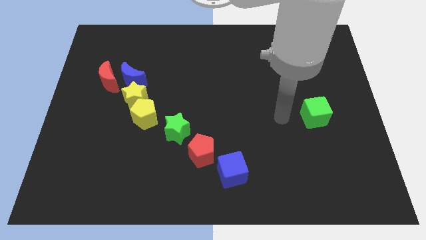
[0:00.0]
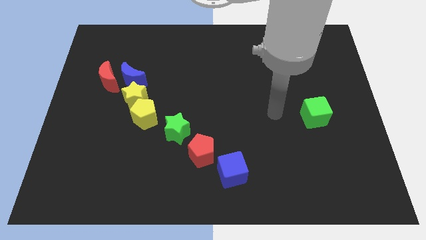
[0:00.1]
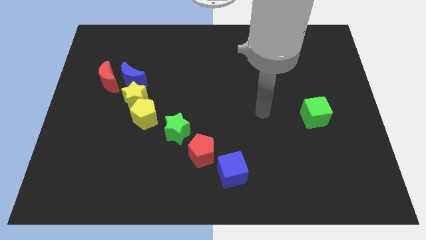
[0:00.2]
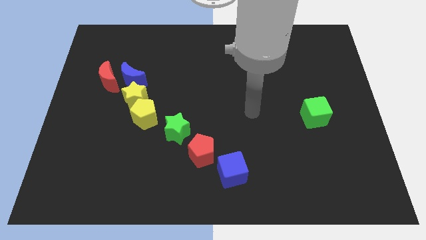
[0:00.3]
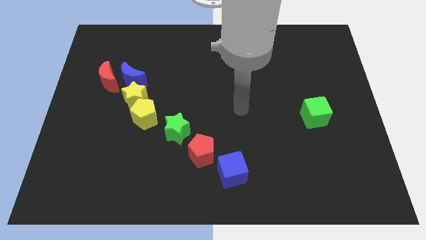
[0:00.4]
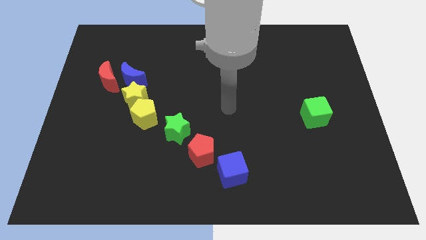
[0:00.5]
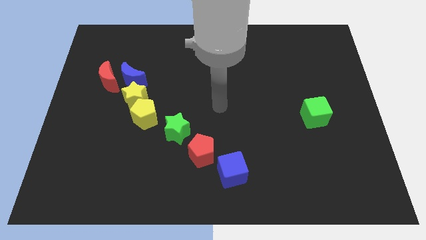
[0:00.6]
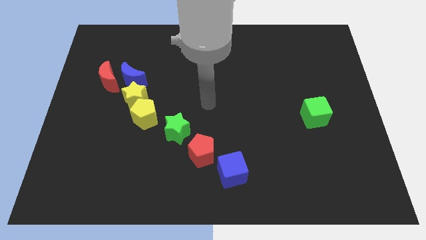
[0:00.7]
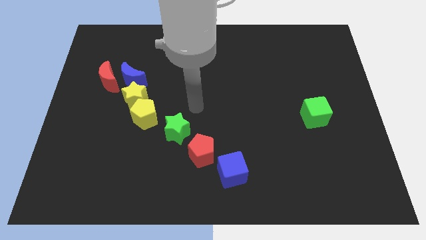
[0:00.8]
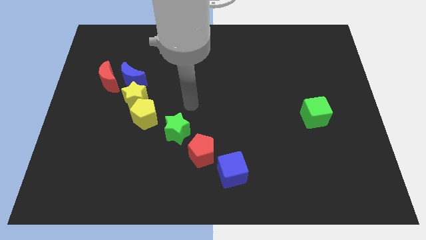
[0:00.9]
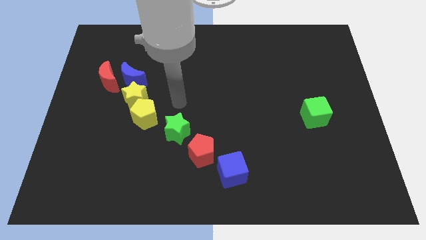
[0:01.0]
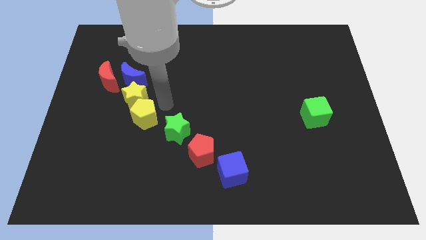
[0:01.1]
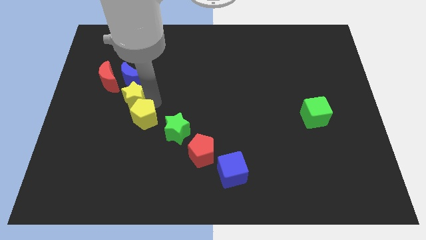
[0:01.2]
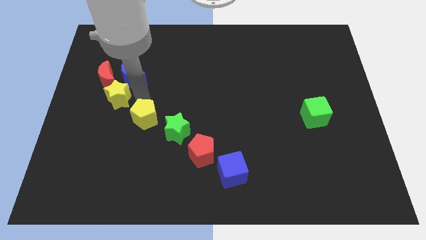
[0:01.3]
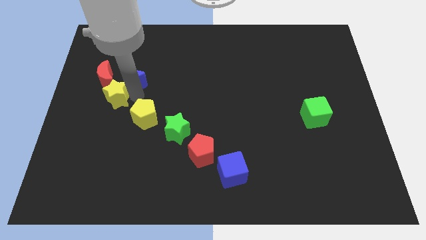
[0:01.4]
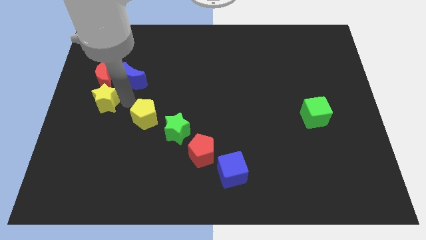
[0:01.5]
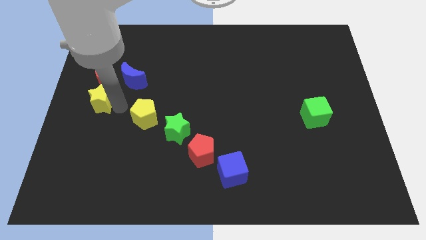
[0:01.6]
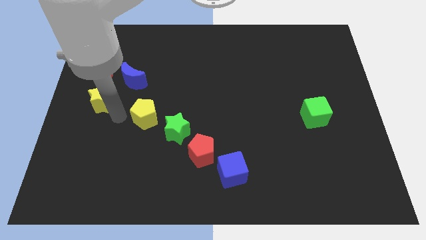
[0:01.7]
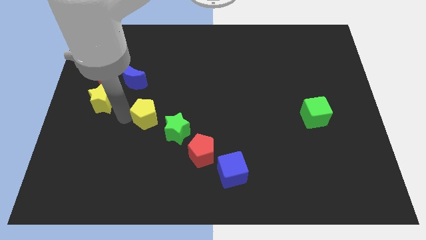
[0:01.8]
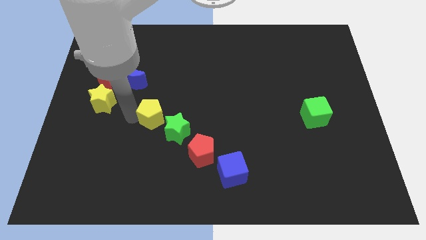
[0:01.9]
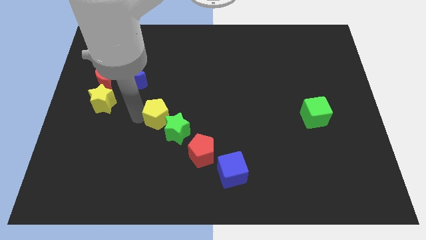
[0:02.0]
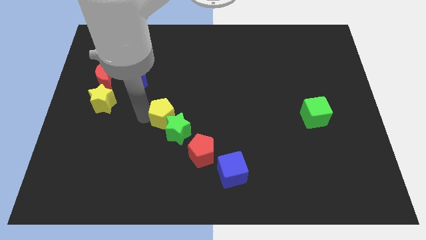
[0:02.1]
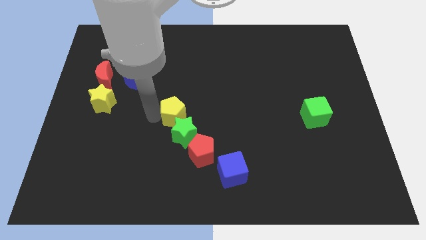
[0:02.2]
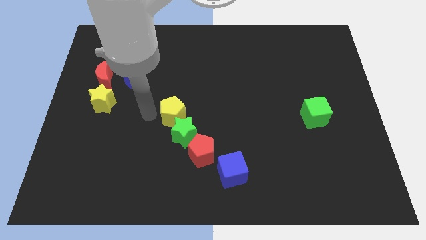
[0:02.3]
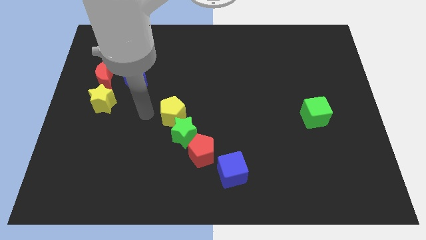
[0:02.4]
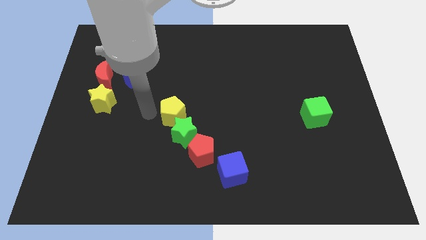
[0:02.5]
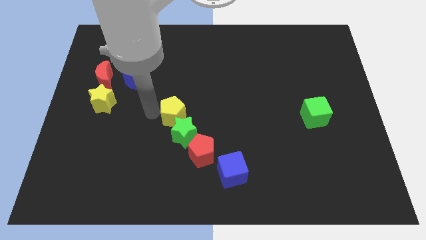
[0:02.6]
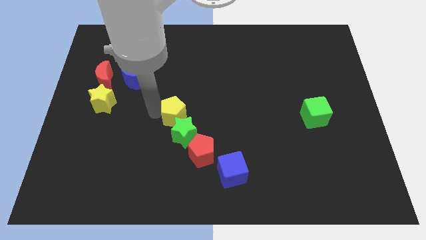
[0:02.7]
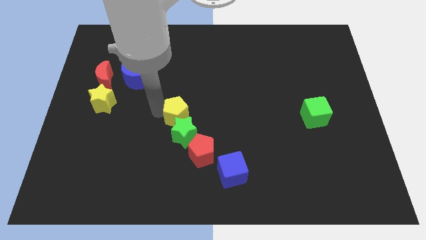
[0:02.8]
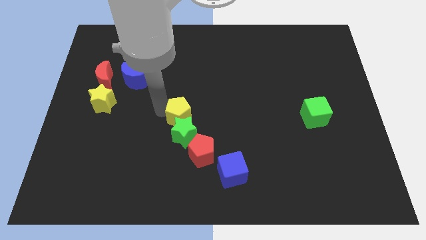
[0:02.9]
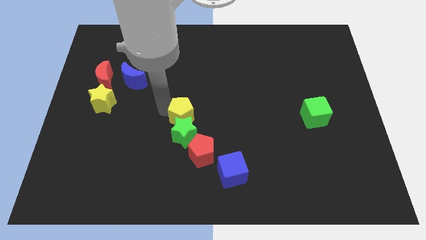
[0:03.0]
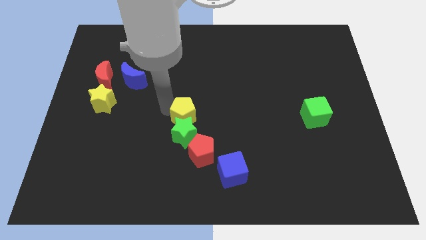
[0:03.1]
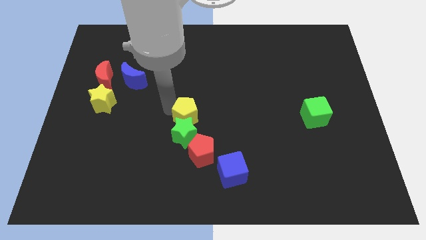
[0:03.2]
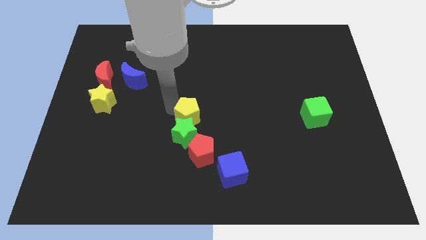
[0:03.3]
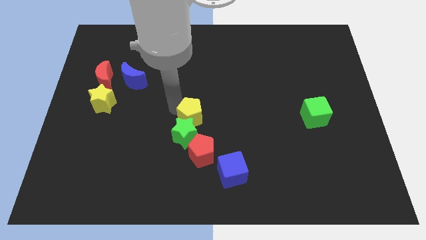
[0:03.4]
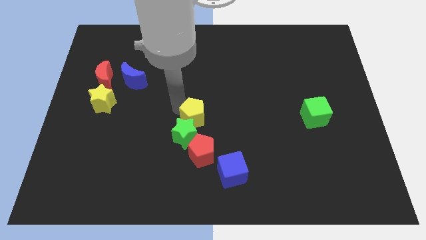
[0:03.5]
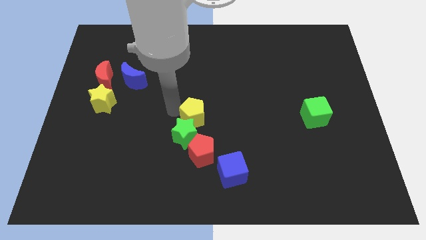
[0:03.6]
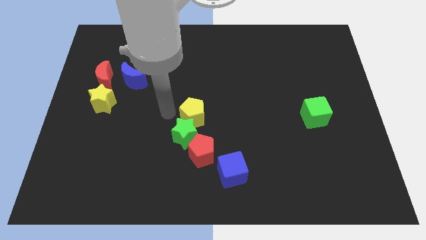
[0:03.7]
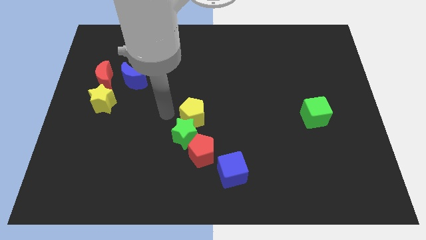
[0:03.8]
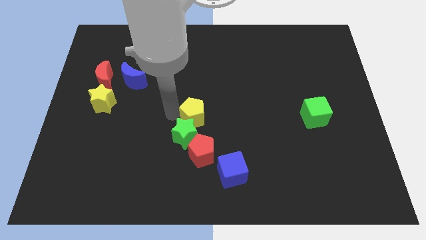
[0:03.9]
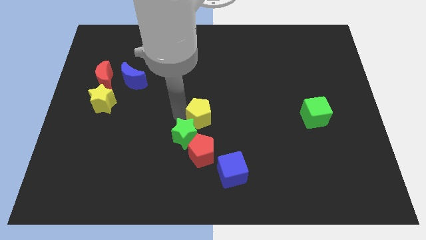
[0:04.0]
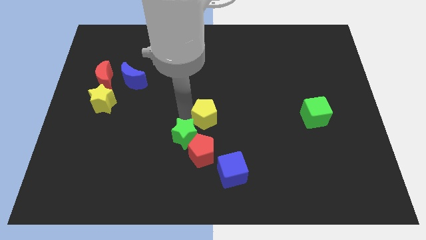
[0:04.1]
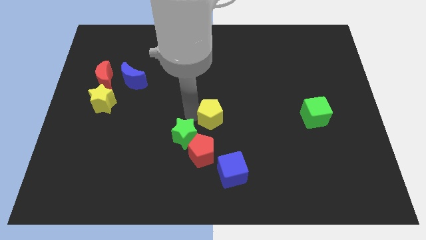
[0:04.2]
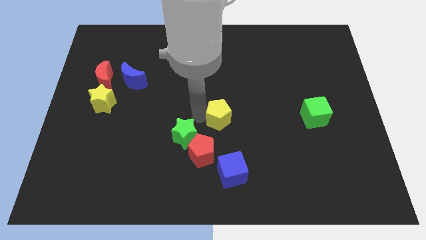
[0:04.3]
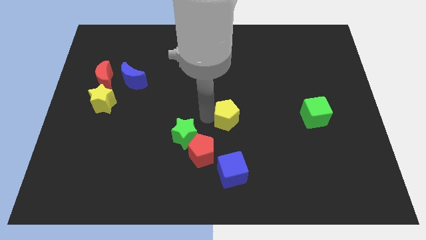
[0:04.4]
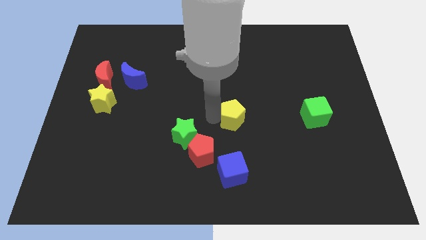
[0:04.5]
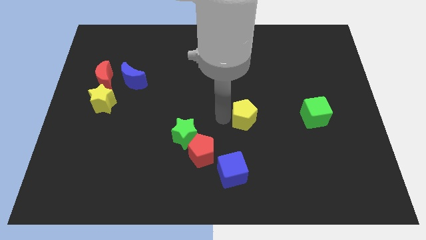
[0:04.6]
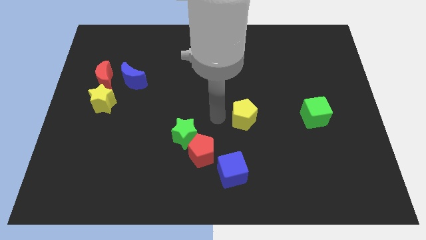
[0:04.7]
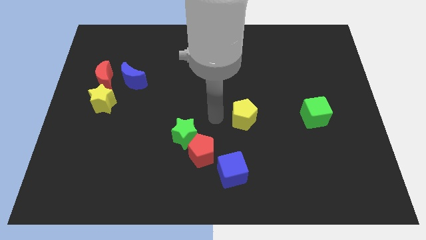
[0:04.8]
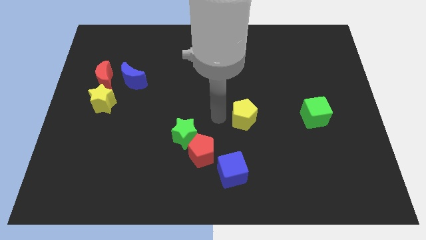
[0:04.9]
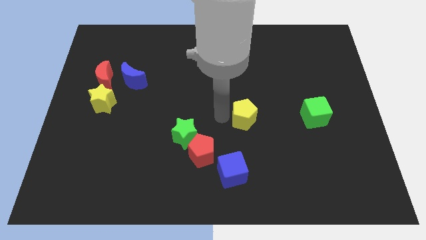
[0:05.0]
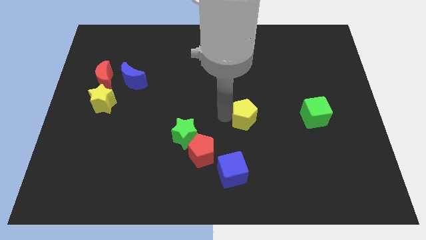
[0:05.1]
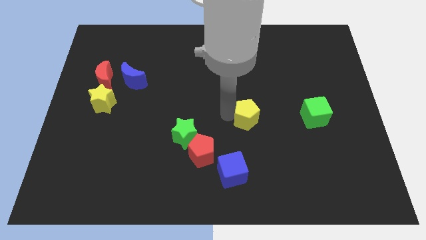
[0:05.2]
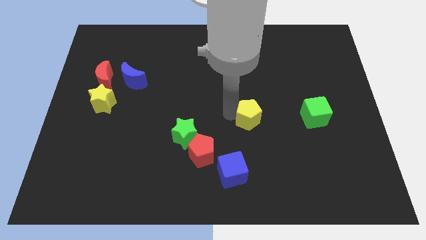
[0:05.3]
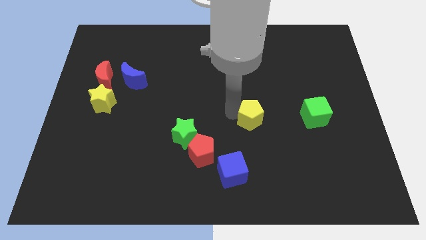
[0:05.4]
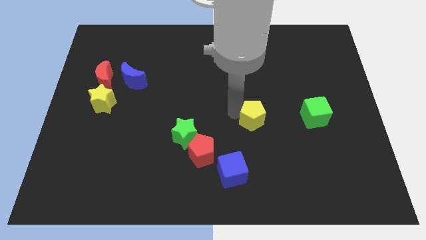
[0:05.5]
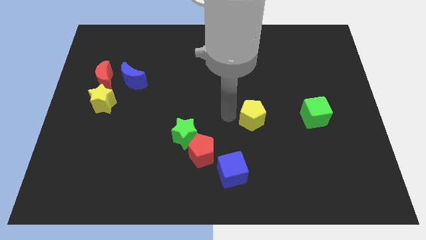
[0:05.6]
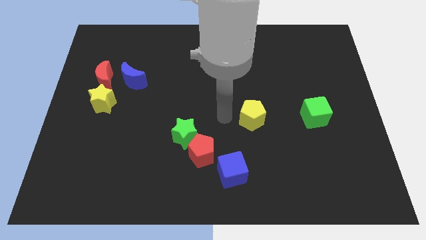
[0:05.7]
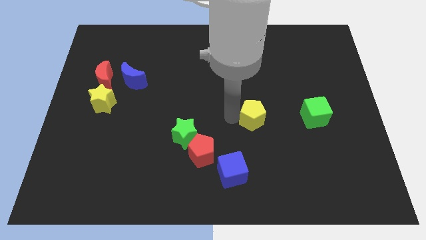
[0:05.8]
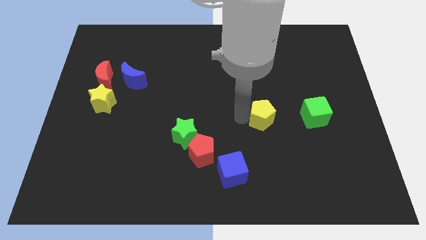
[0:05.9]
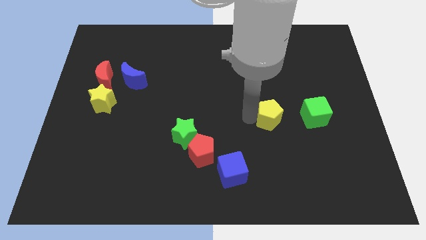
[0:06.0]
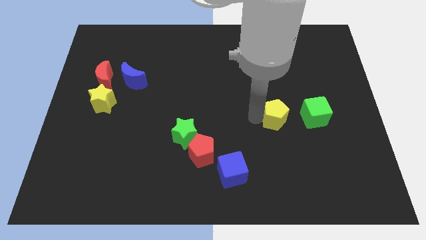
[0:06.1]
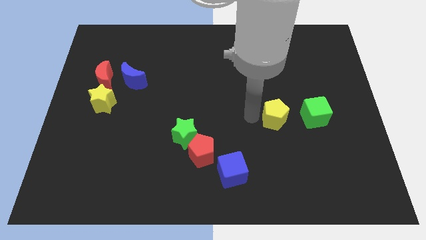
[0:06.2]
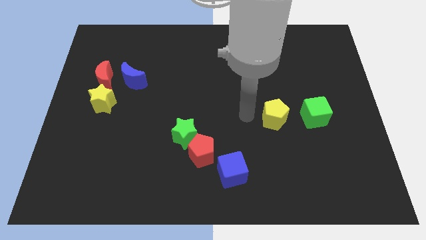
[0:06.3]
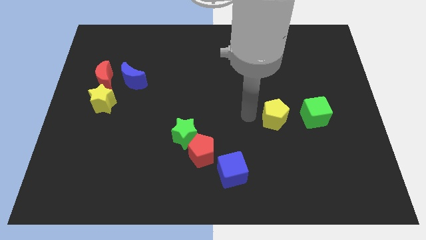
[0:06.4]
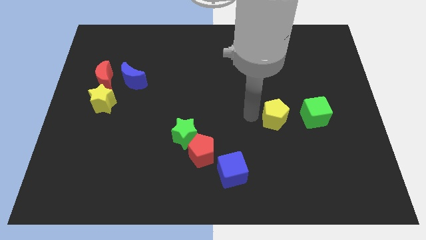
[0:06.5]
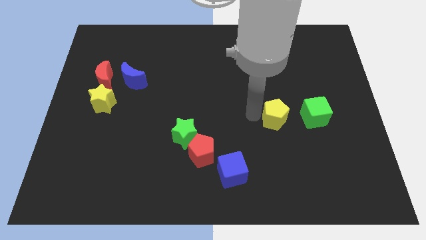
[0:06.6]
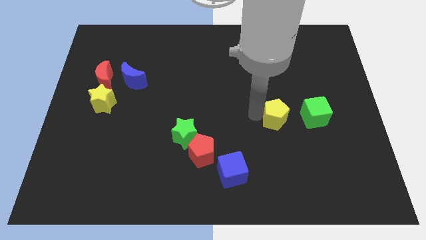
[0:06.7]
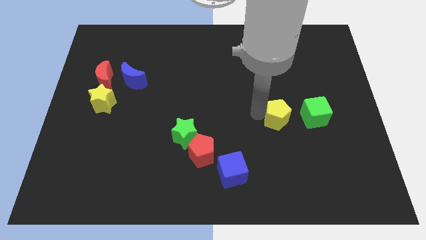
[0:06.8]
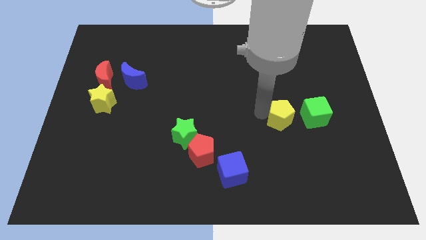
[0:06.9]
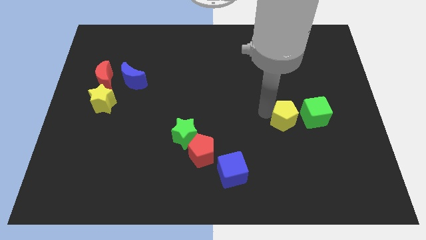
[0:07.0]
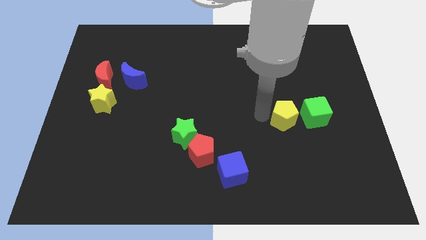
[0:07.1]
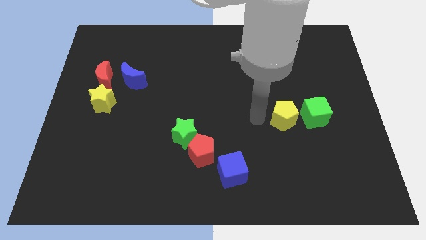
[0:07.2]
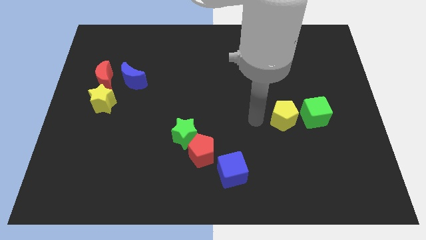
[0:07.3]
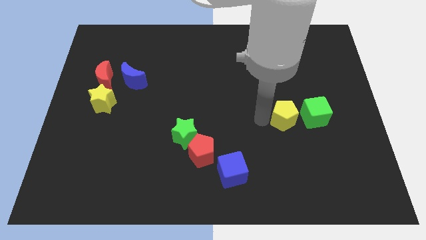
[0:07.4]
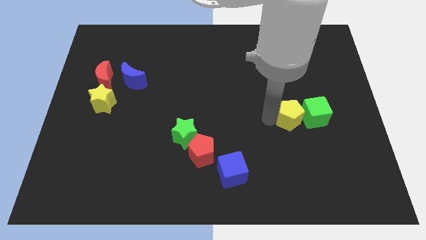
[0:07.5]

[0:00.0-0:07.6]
put the yellow pentagon next to the green cube
